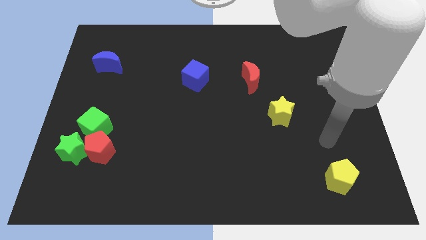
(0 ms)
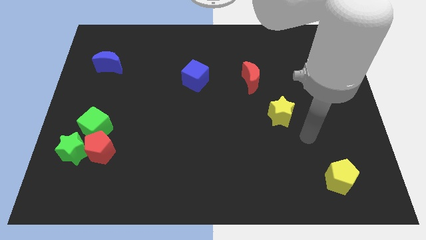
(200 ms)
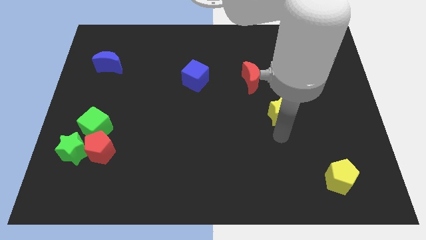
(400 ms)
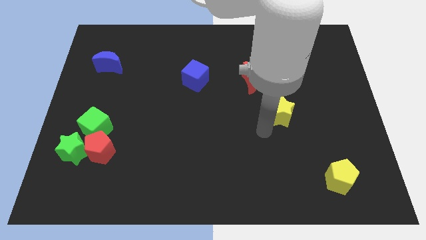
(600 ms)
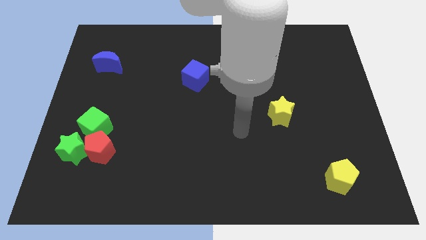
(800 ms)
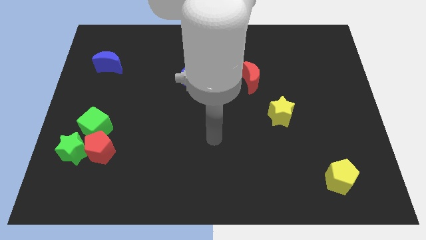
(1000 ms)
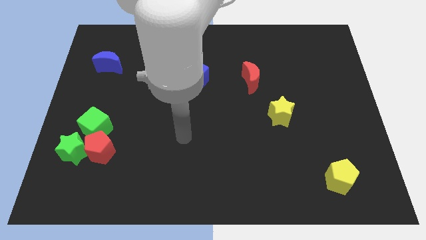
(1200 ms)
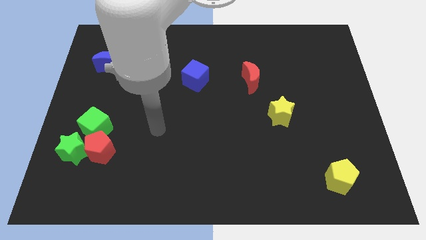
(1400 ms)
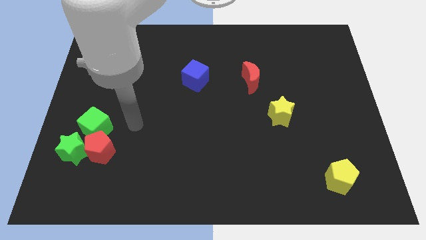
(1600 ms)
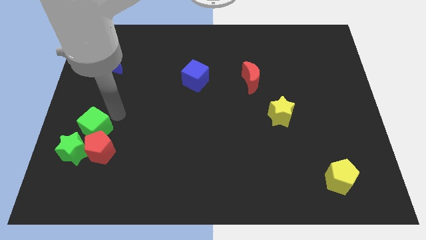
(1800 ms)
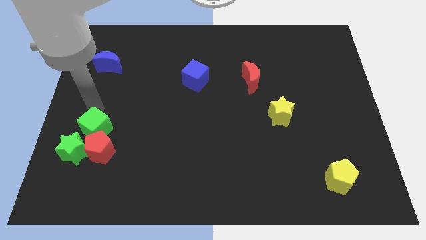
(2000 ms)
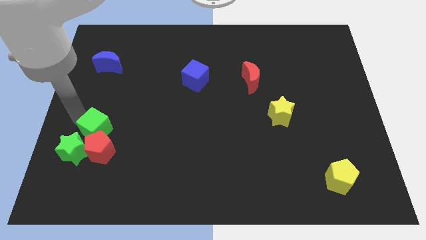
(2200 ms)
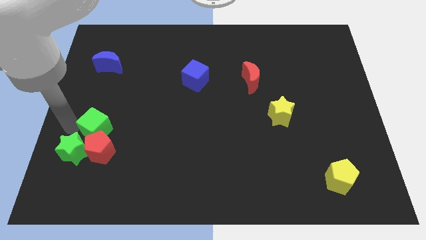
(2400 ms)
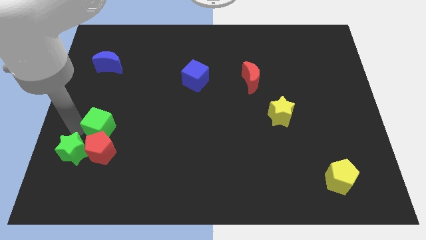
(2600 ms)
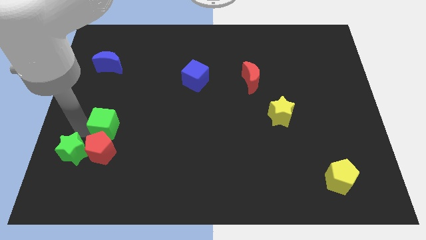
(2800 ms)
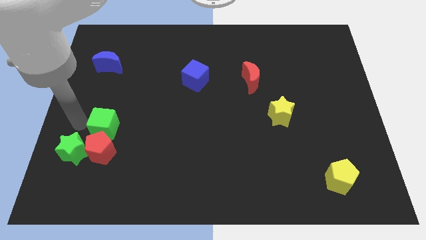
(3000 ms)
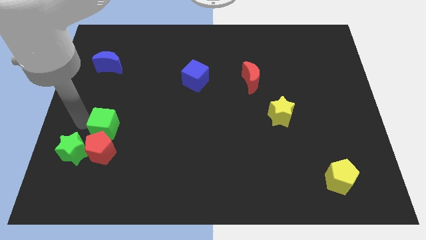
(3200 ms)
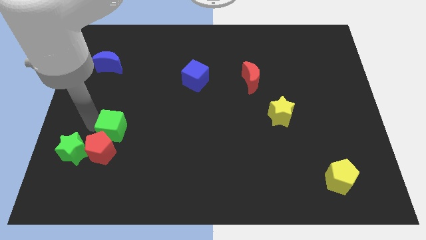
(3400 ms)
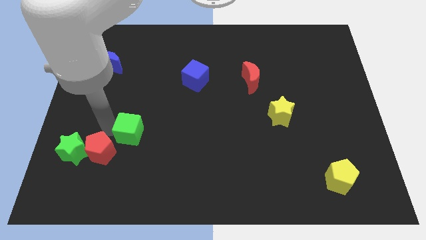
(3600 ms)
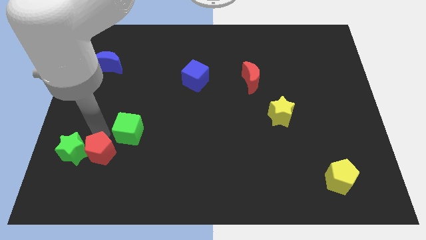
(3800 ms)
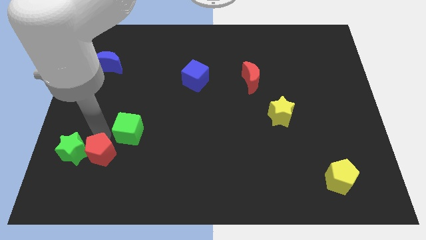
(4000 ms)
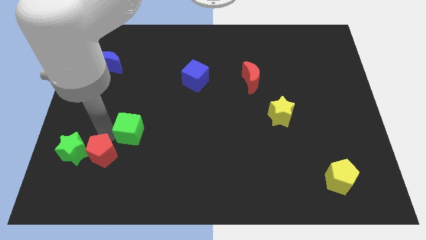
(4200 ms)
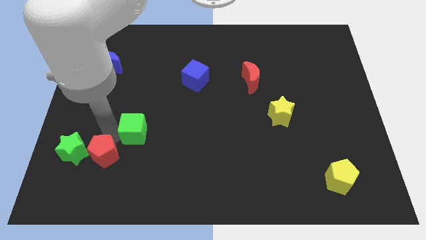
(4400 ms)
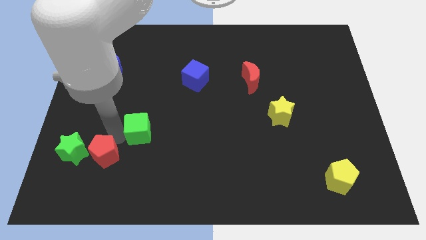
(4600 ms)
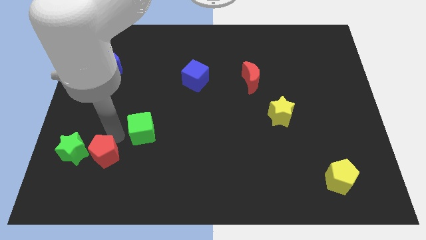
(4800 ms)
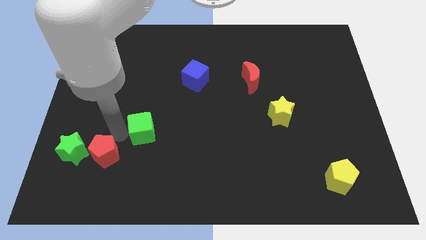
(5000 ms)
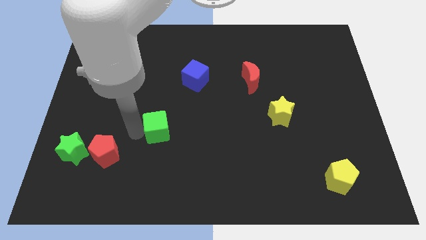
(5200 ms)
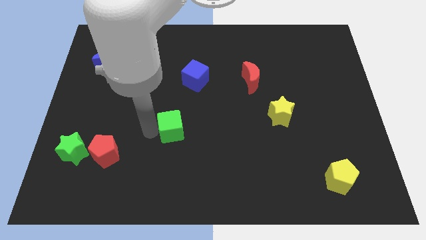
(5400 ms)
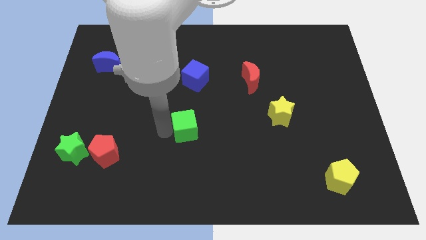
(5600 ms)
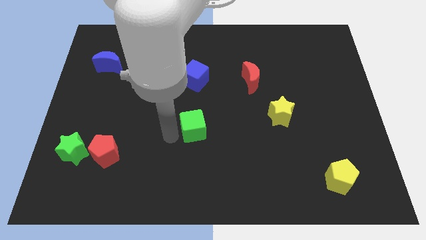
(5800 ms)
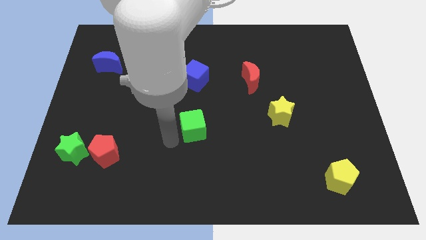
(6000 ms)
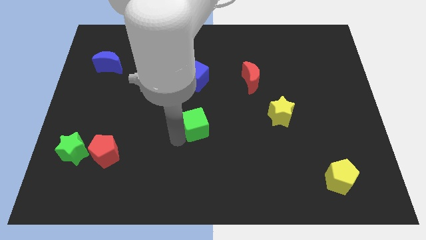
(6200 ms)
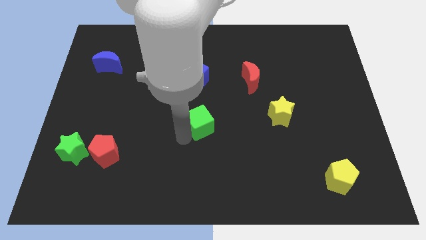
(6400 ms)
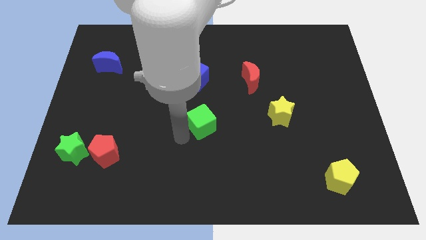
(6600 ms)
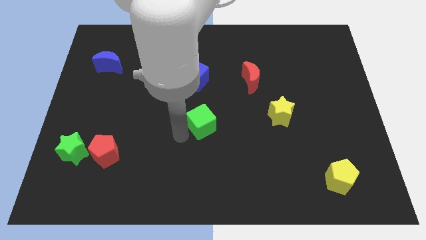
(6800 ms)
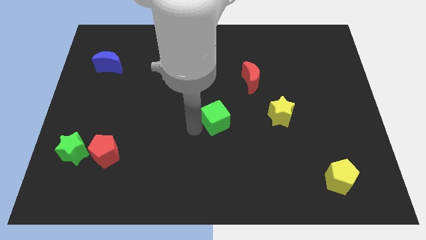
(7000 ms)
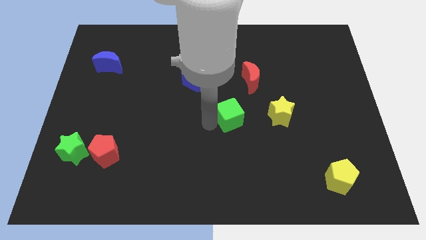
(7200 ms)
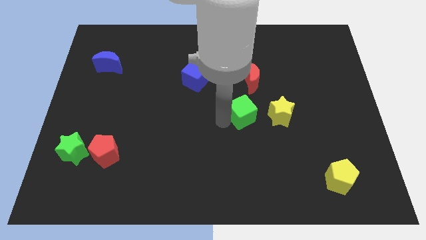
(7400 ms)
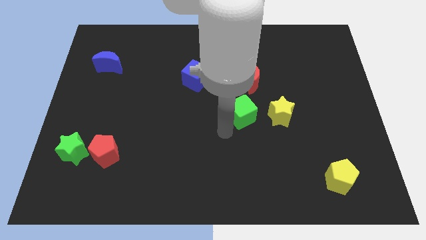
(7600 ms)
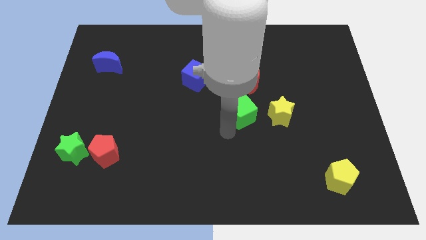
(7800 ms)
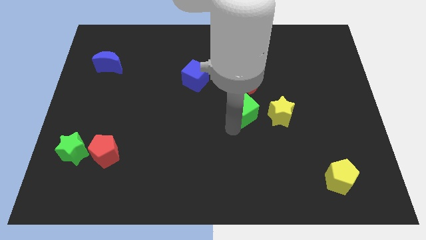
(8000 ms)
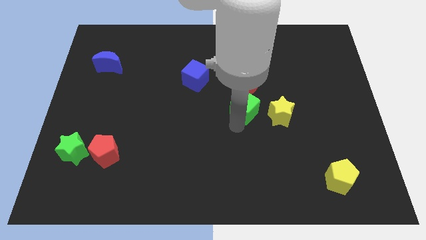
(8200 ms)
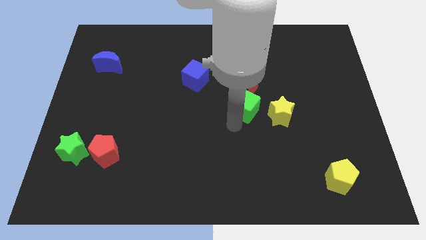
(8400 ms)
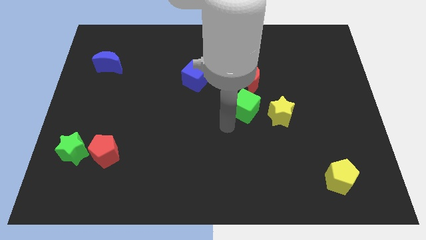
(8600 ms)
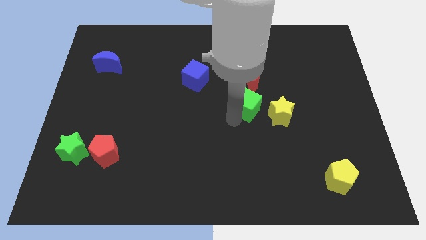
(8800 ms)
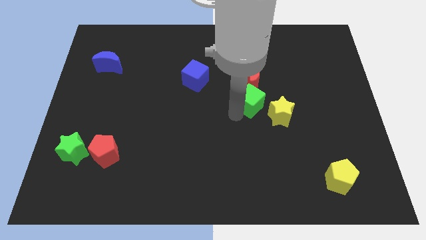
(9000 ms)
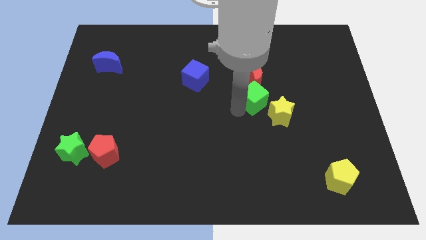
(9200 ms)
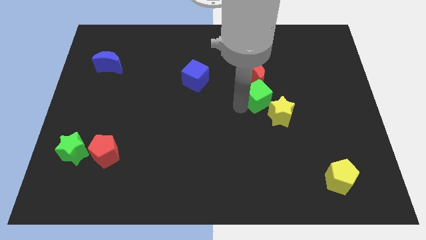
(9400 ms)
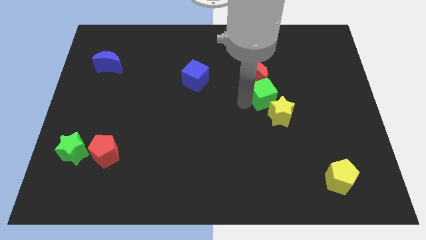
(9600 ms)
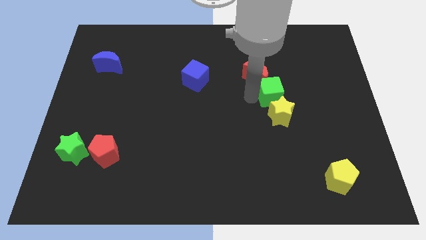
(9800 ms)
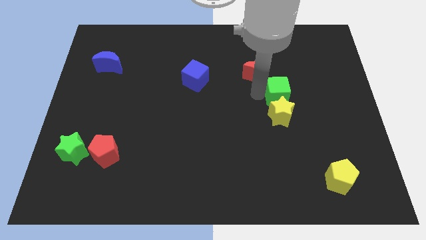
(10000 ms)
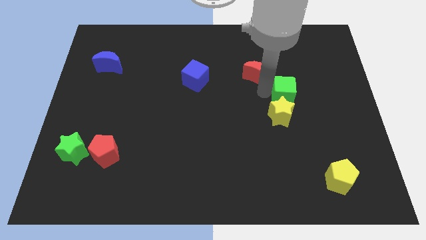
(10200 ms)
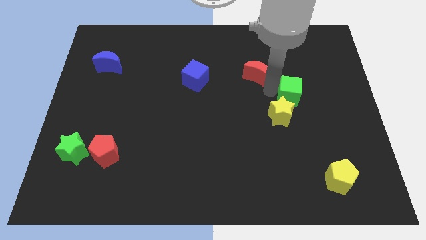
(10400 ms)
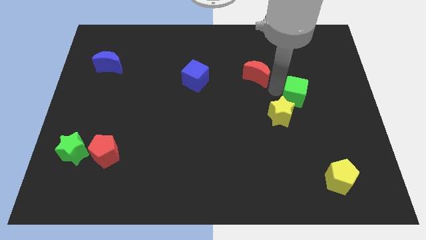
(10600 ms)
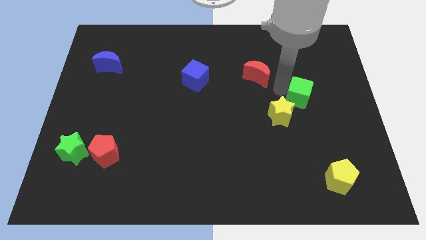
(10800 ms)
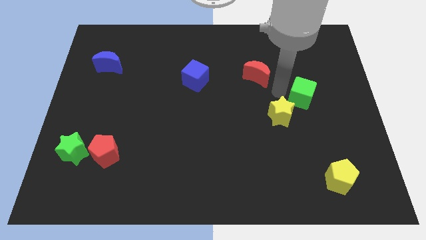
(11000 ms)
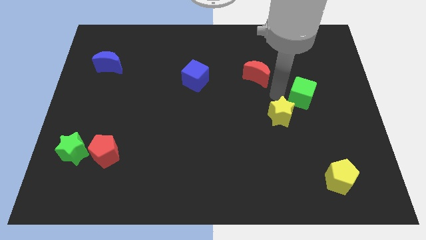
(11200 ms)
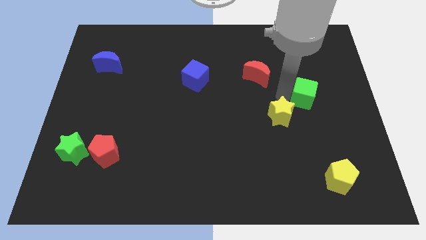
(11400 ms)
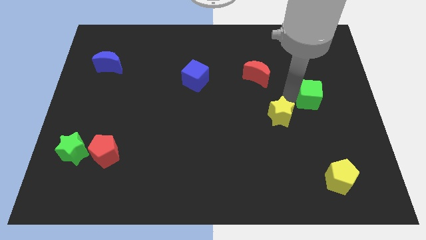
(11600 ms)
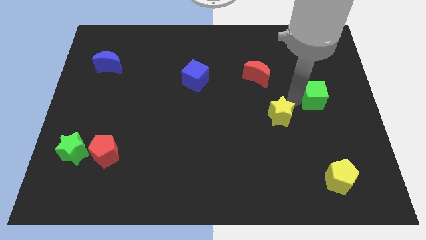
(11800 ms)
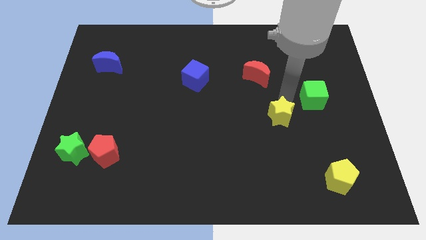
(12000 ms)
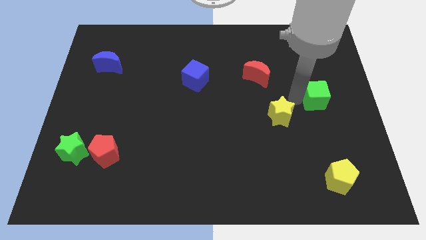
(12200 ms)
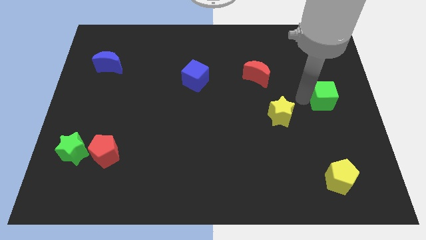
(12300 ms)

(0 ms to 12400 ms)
push the green cube to the right side of the board
